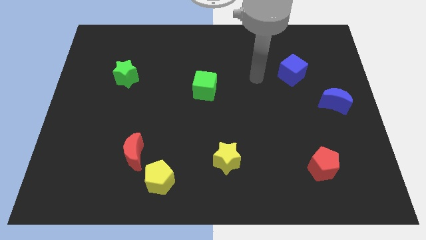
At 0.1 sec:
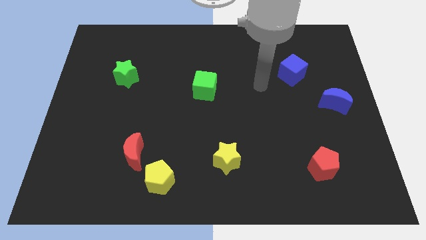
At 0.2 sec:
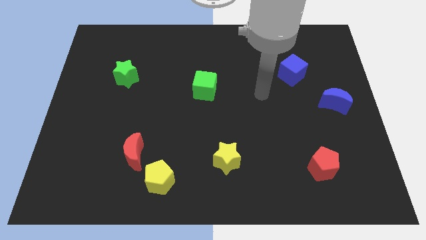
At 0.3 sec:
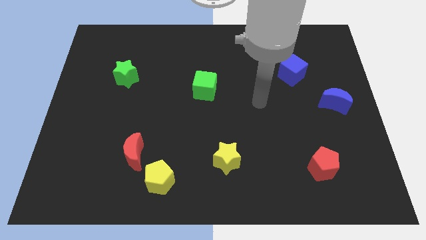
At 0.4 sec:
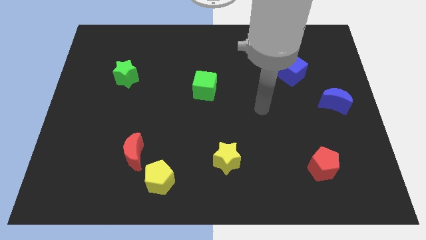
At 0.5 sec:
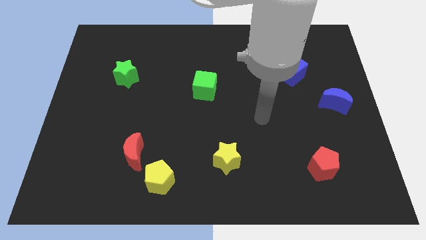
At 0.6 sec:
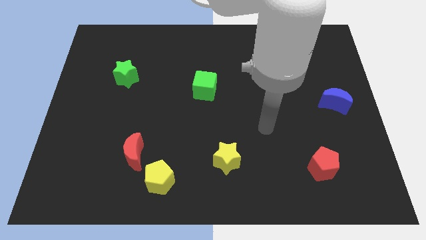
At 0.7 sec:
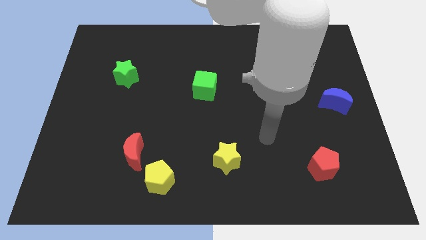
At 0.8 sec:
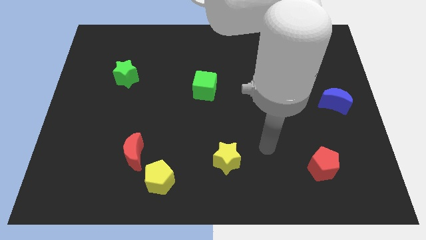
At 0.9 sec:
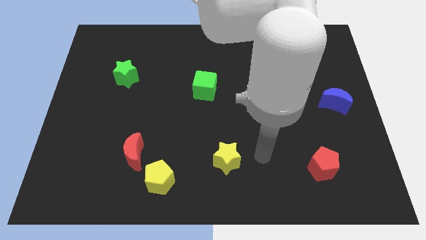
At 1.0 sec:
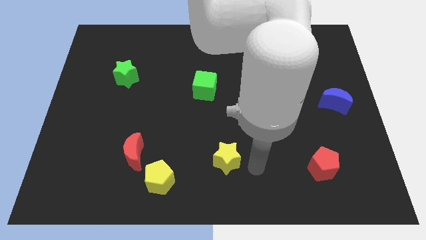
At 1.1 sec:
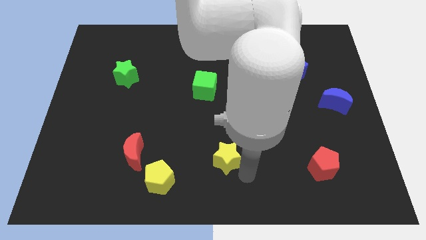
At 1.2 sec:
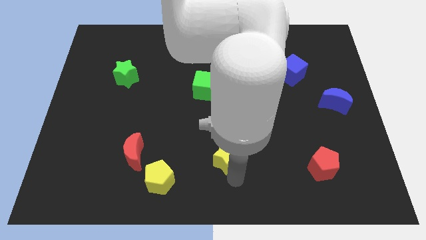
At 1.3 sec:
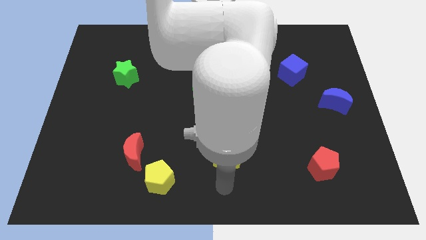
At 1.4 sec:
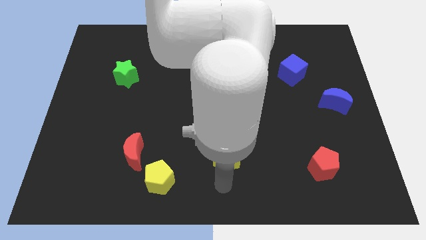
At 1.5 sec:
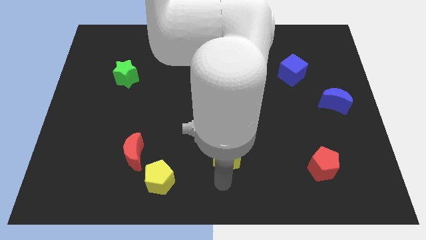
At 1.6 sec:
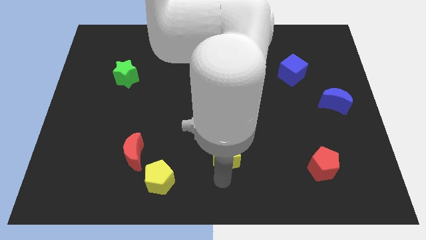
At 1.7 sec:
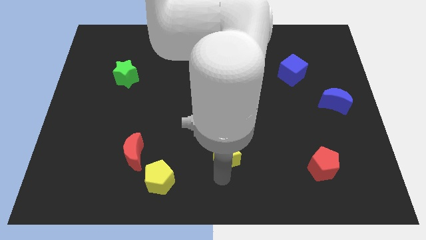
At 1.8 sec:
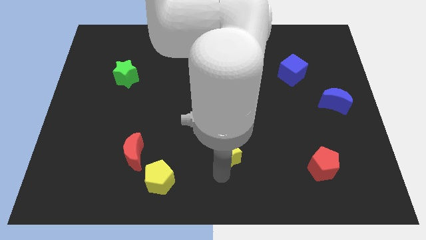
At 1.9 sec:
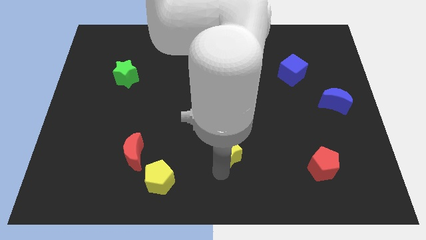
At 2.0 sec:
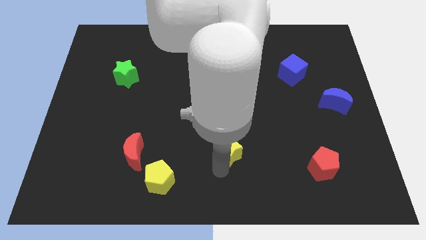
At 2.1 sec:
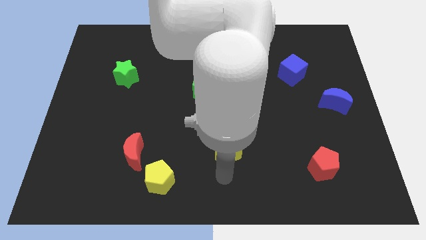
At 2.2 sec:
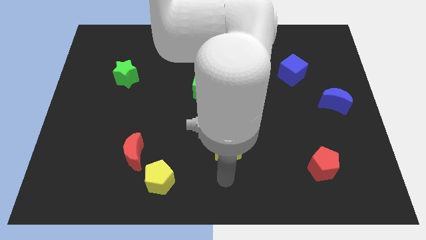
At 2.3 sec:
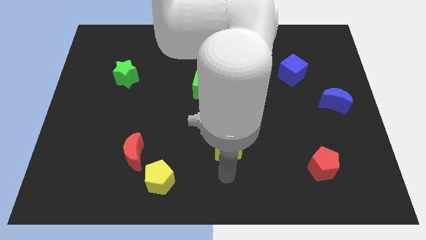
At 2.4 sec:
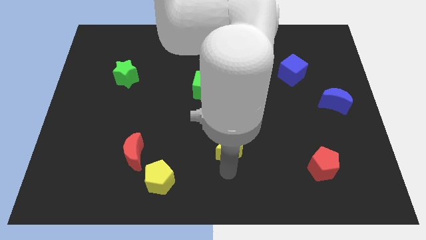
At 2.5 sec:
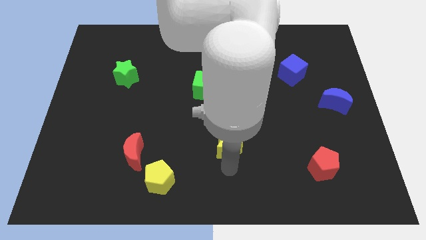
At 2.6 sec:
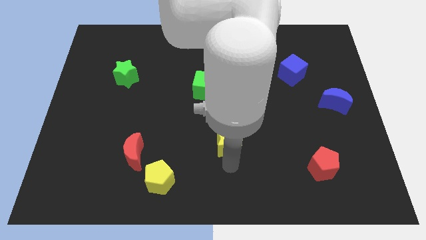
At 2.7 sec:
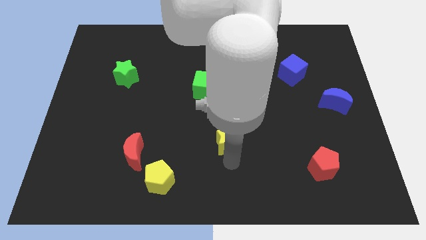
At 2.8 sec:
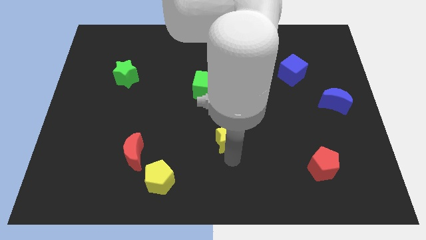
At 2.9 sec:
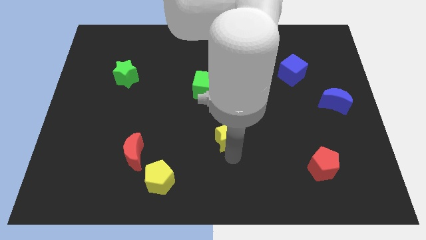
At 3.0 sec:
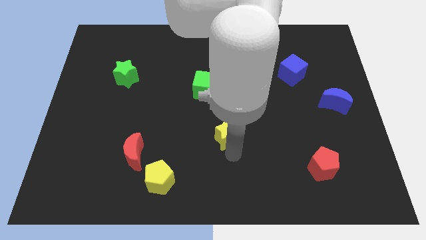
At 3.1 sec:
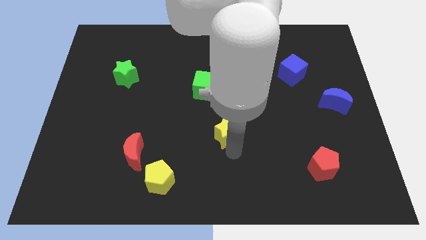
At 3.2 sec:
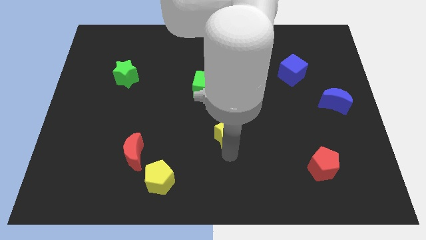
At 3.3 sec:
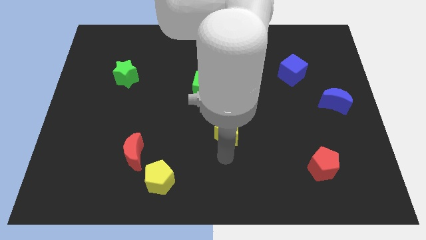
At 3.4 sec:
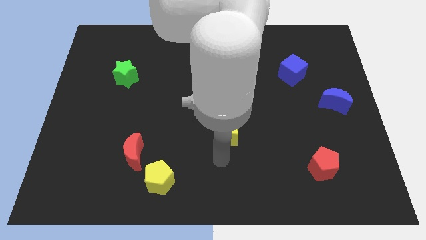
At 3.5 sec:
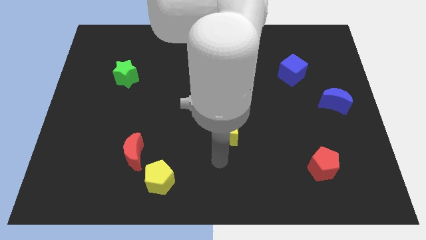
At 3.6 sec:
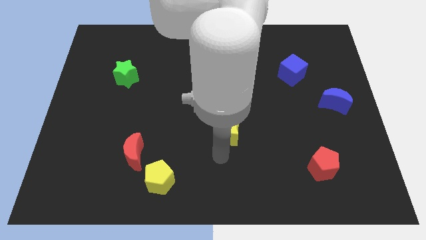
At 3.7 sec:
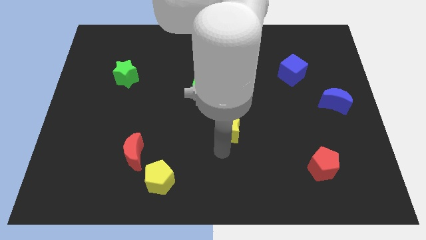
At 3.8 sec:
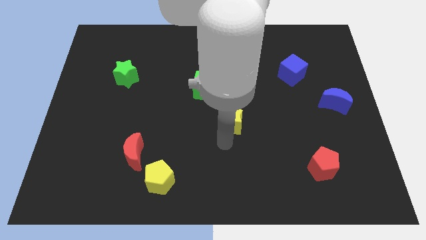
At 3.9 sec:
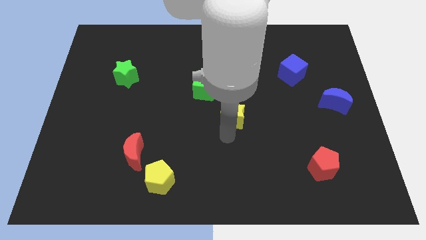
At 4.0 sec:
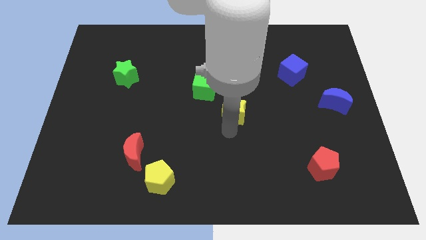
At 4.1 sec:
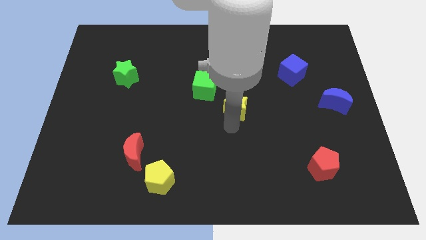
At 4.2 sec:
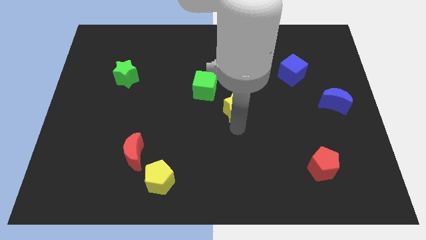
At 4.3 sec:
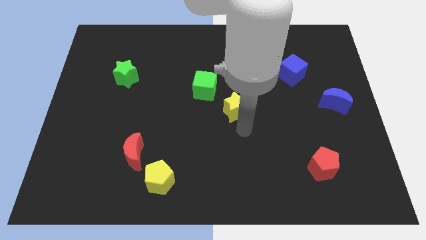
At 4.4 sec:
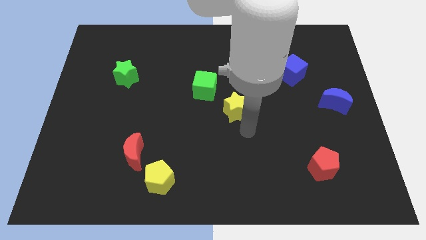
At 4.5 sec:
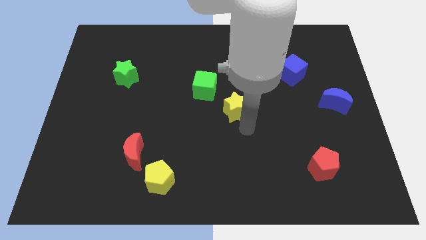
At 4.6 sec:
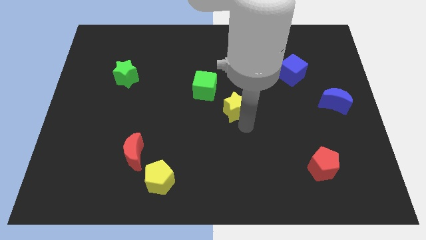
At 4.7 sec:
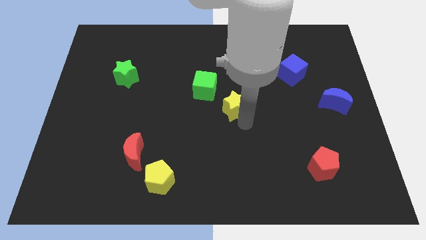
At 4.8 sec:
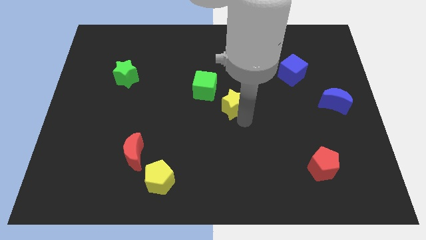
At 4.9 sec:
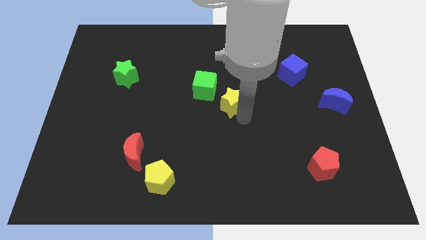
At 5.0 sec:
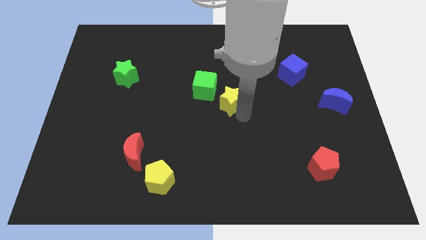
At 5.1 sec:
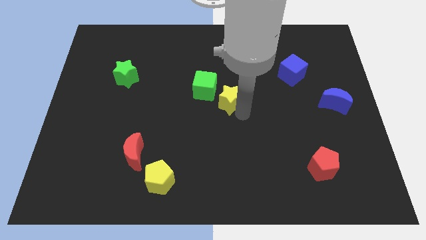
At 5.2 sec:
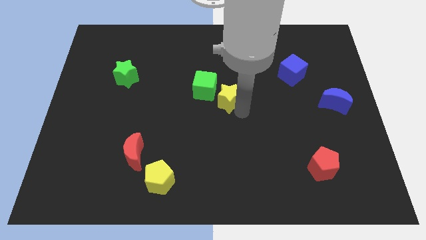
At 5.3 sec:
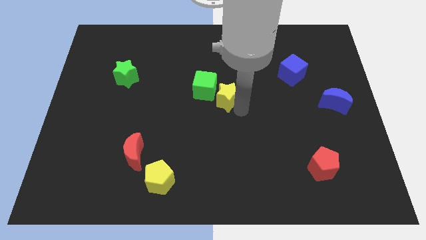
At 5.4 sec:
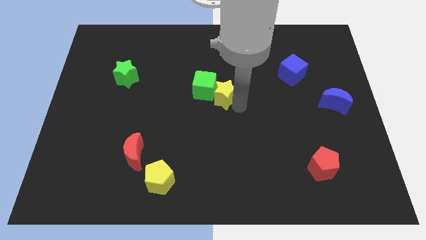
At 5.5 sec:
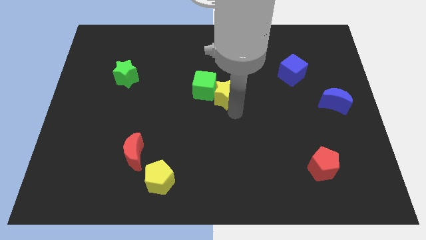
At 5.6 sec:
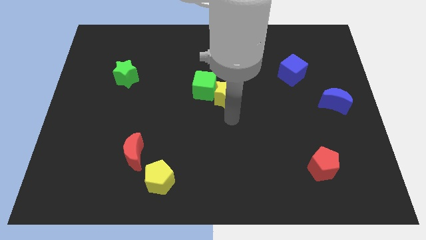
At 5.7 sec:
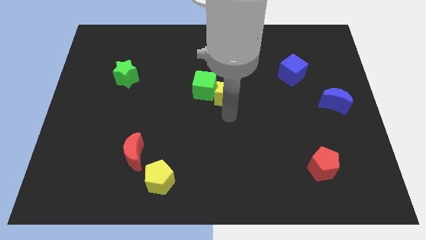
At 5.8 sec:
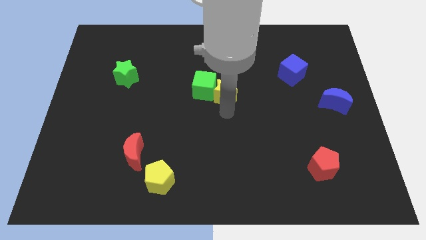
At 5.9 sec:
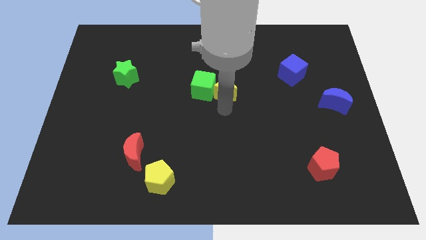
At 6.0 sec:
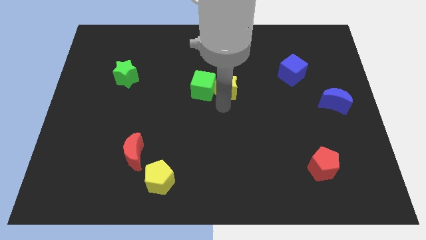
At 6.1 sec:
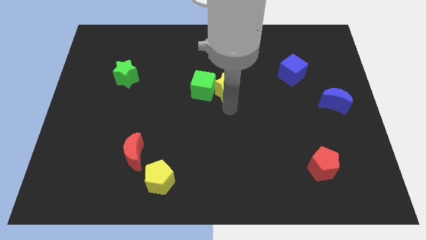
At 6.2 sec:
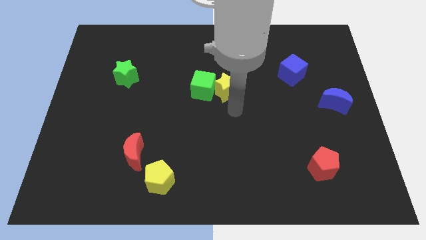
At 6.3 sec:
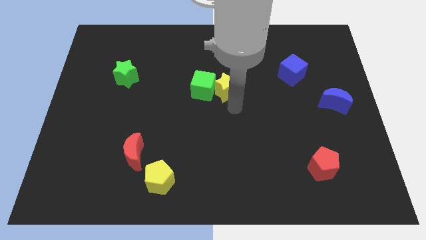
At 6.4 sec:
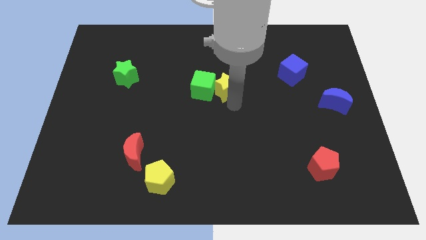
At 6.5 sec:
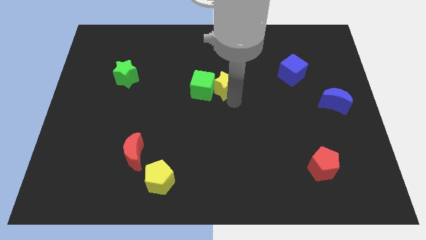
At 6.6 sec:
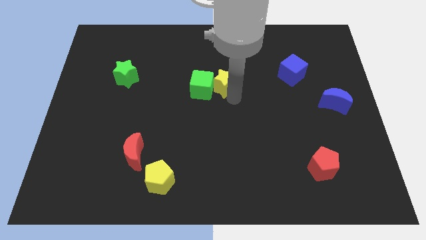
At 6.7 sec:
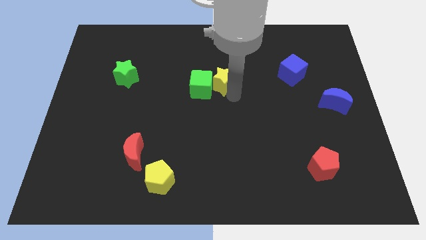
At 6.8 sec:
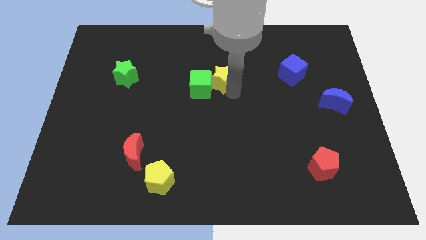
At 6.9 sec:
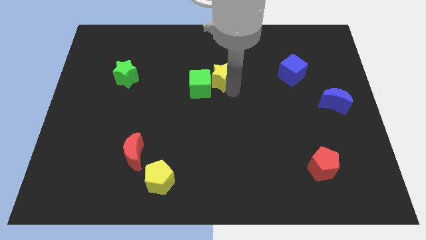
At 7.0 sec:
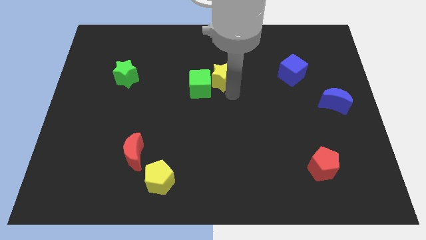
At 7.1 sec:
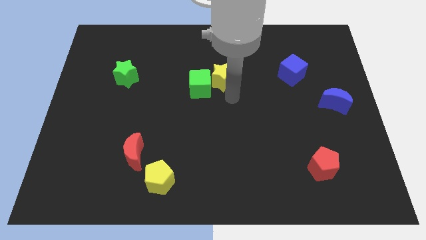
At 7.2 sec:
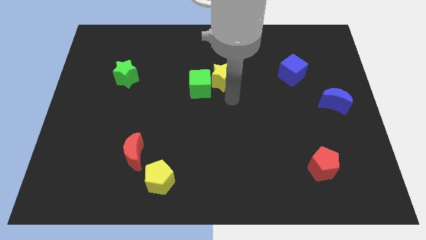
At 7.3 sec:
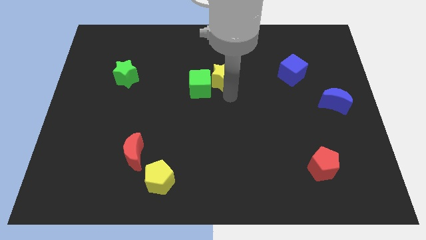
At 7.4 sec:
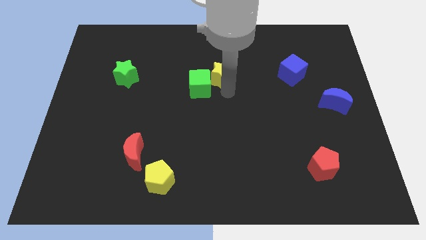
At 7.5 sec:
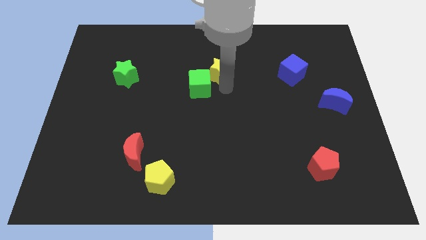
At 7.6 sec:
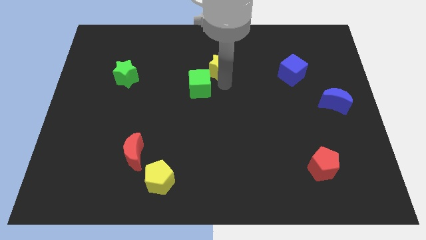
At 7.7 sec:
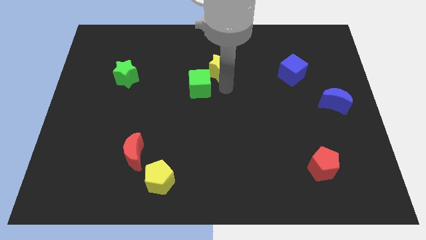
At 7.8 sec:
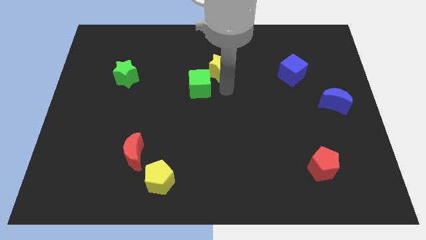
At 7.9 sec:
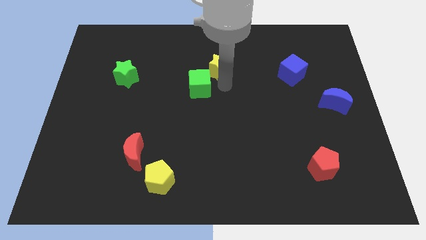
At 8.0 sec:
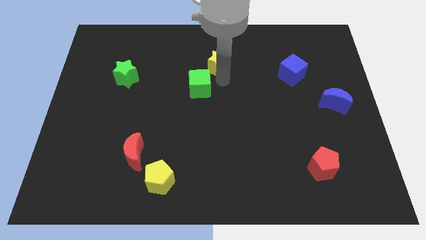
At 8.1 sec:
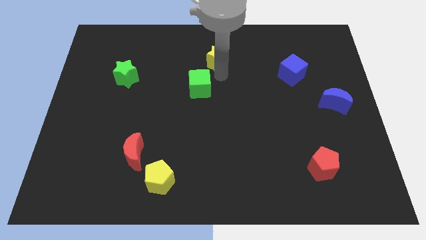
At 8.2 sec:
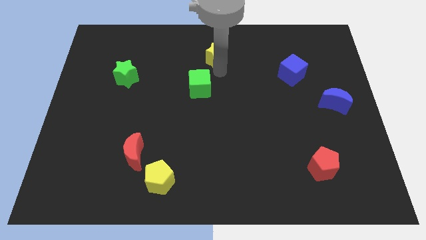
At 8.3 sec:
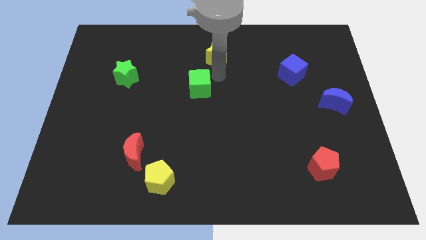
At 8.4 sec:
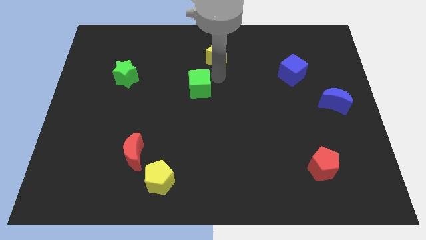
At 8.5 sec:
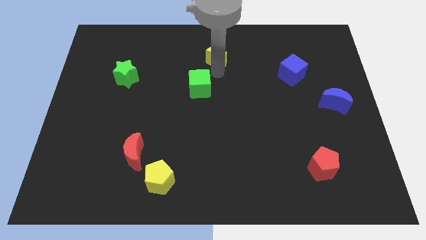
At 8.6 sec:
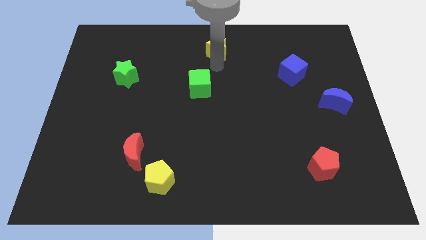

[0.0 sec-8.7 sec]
slide the yellow star to the top side
